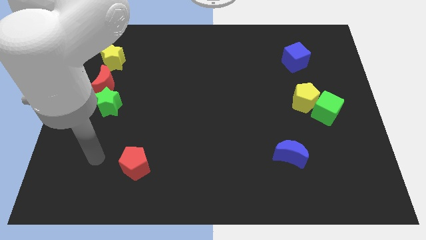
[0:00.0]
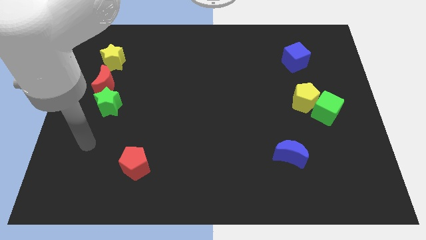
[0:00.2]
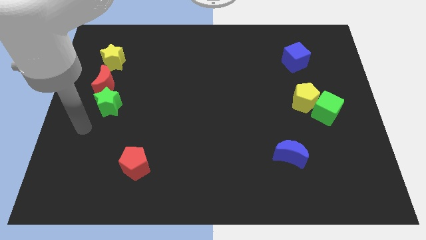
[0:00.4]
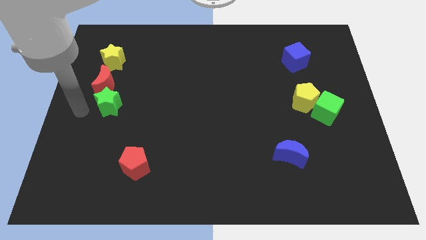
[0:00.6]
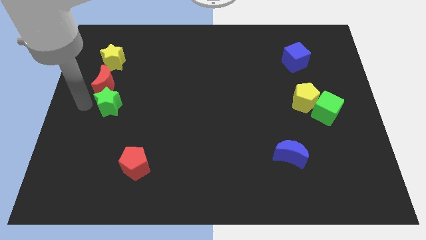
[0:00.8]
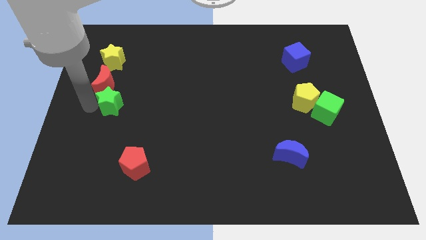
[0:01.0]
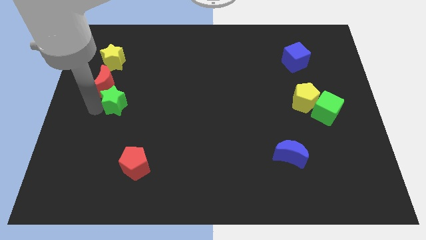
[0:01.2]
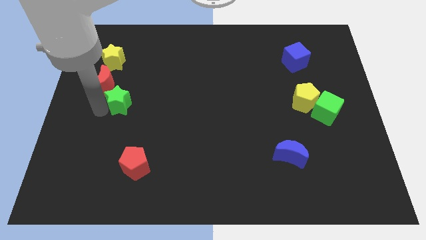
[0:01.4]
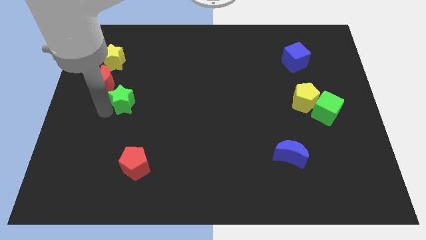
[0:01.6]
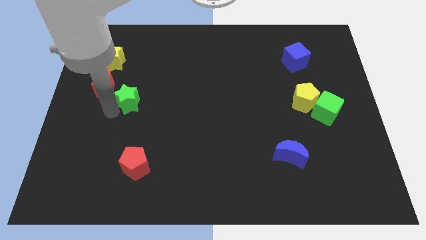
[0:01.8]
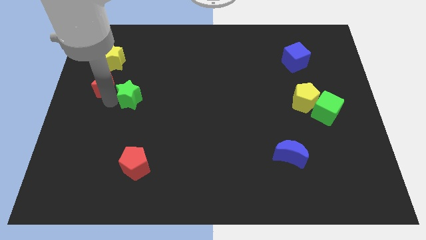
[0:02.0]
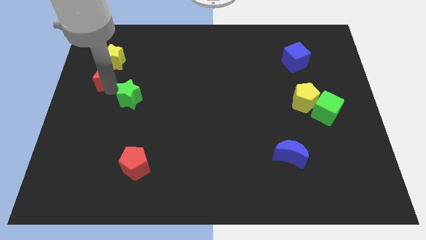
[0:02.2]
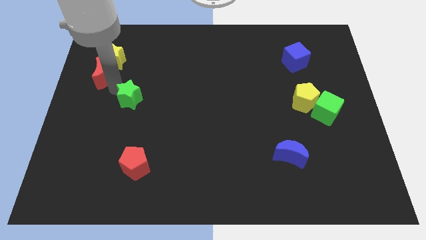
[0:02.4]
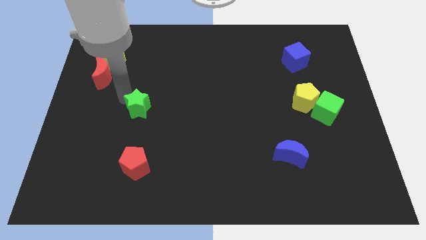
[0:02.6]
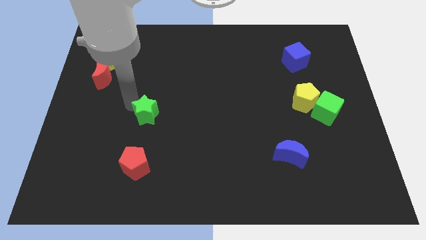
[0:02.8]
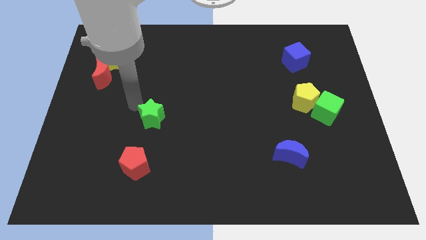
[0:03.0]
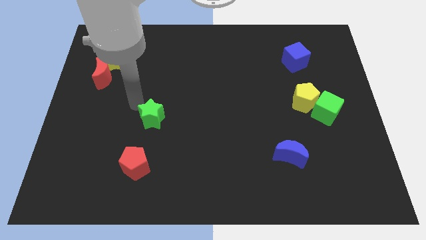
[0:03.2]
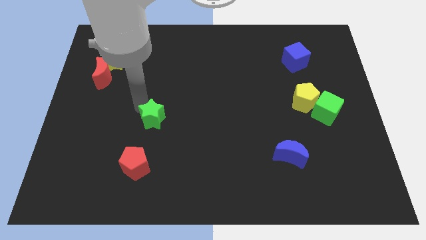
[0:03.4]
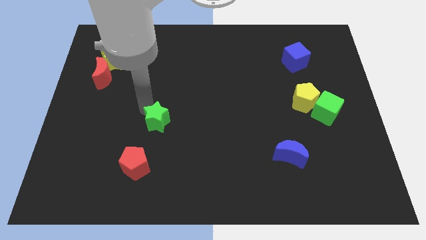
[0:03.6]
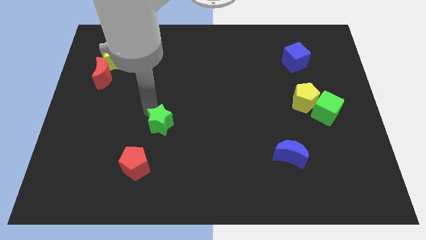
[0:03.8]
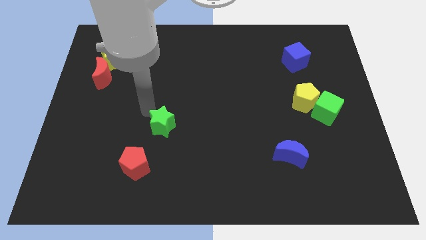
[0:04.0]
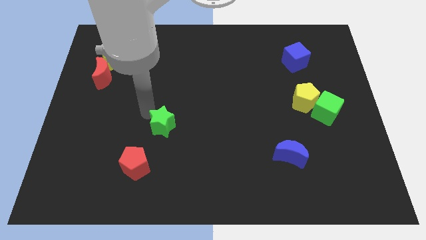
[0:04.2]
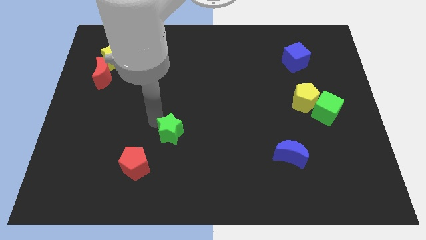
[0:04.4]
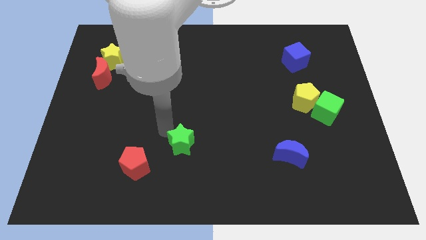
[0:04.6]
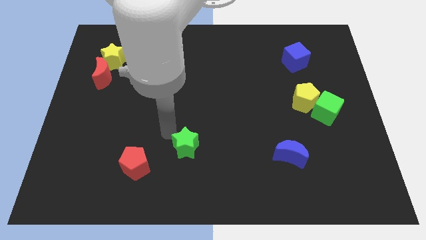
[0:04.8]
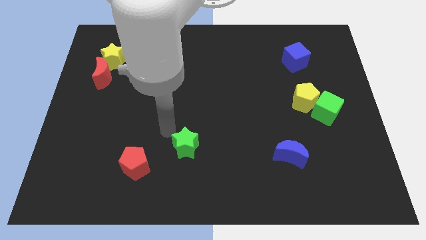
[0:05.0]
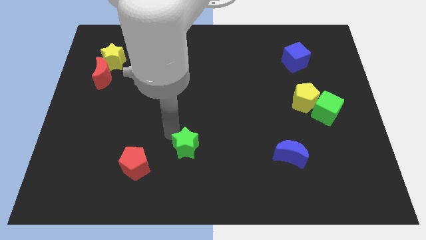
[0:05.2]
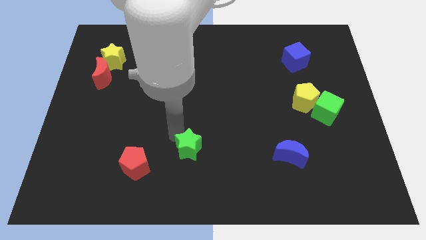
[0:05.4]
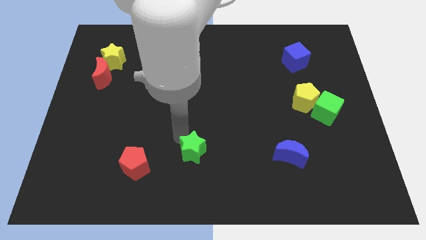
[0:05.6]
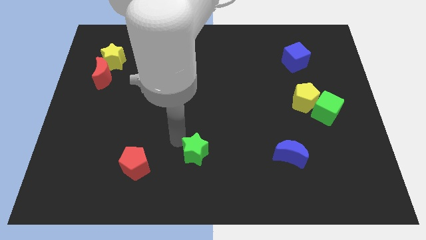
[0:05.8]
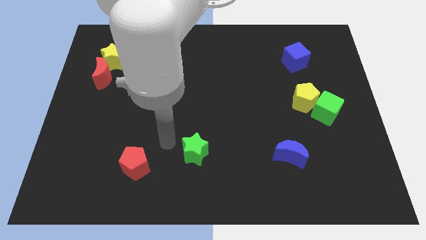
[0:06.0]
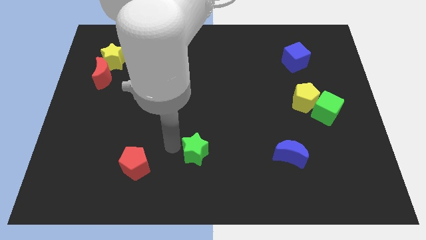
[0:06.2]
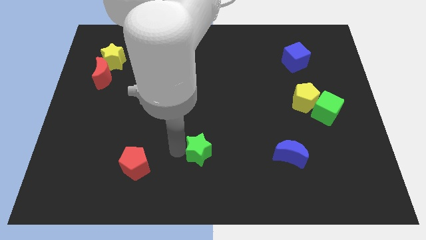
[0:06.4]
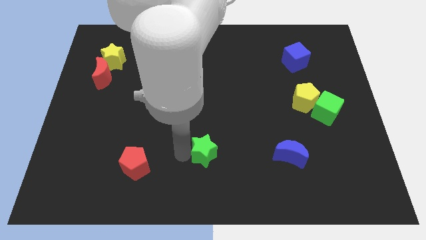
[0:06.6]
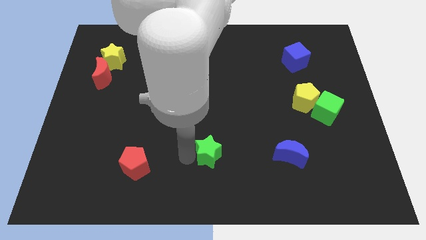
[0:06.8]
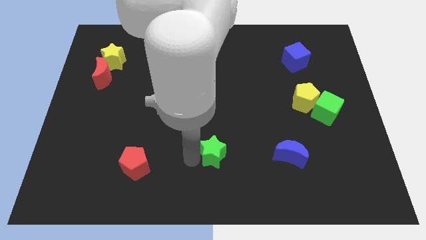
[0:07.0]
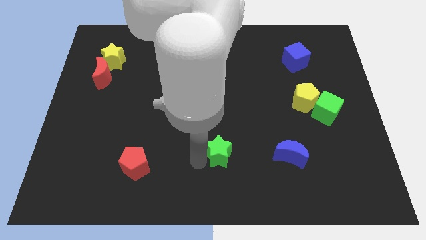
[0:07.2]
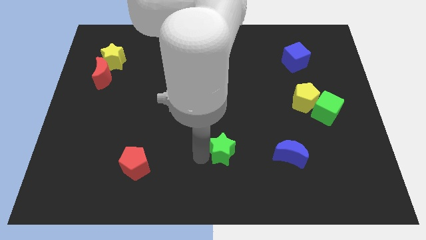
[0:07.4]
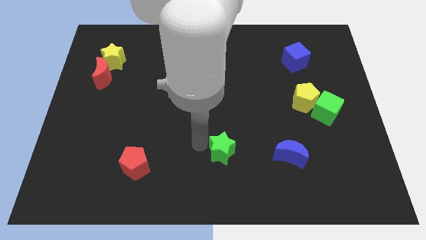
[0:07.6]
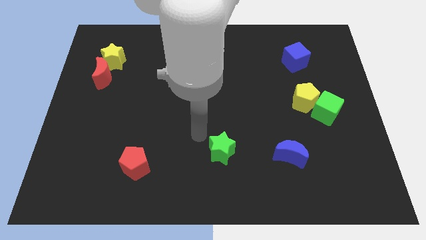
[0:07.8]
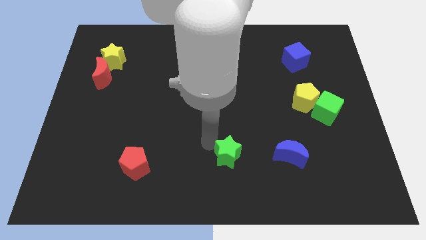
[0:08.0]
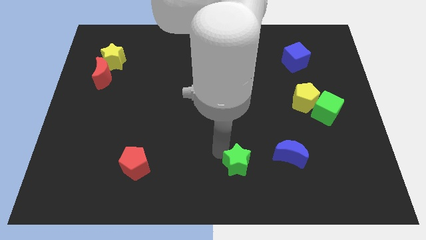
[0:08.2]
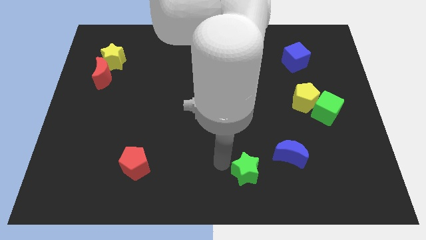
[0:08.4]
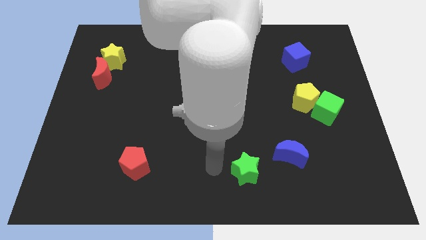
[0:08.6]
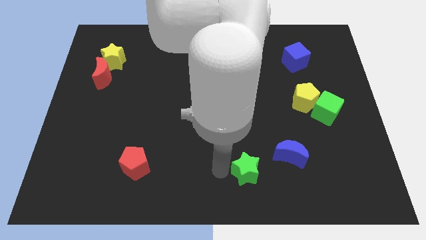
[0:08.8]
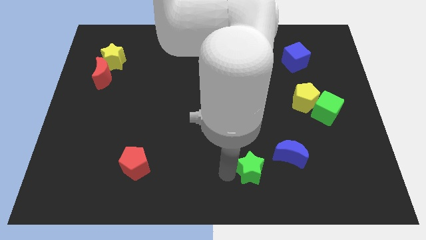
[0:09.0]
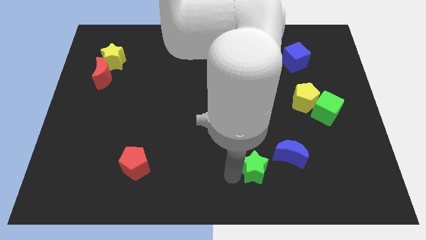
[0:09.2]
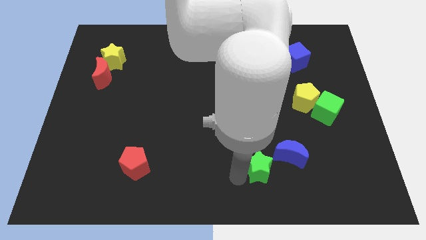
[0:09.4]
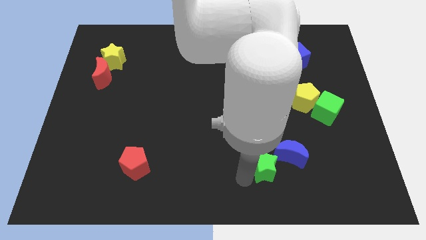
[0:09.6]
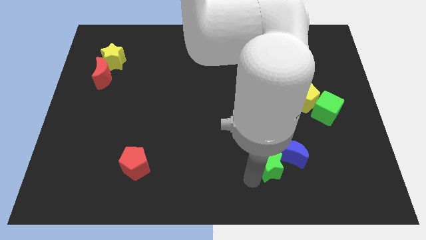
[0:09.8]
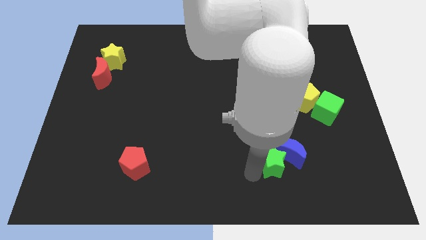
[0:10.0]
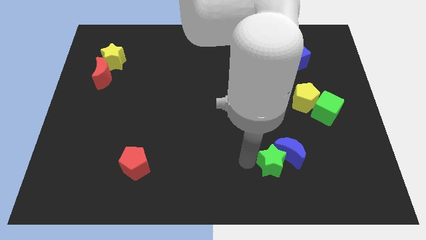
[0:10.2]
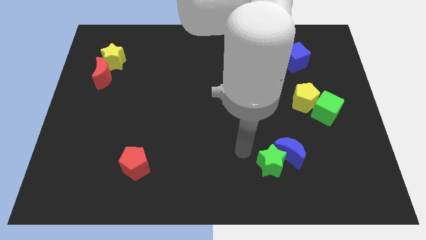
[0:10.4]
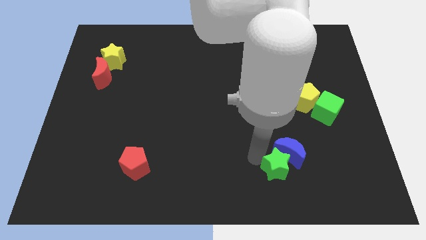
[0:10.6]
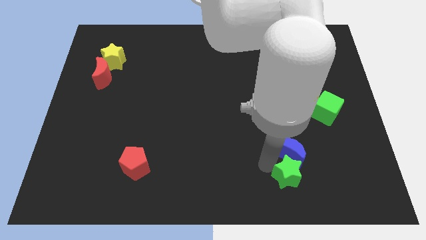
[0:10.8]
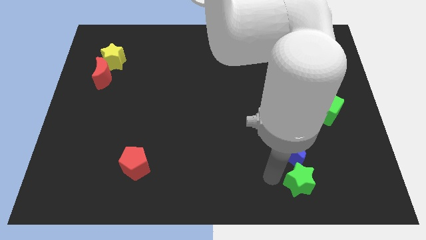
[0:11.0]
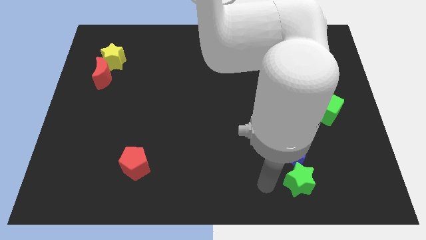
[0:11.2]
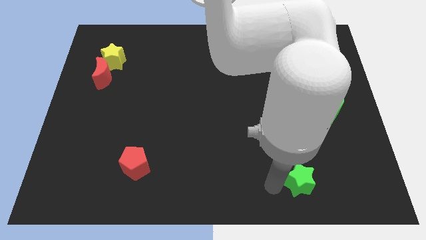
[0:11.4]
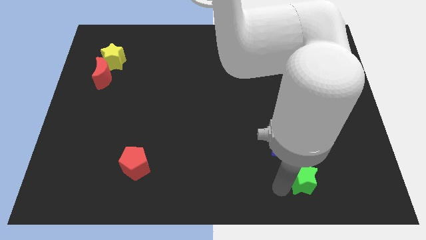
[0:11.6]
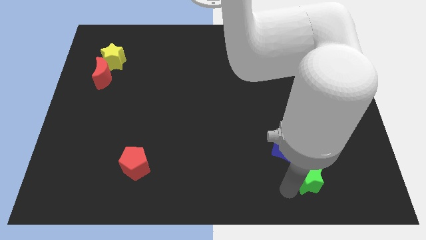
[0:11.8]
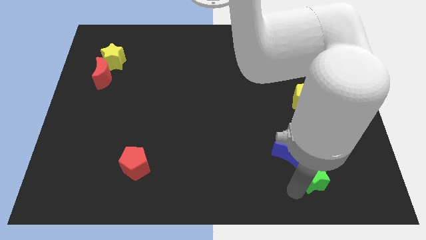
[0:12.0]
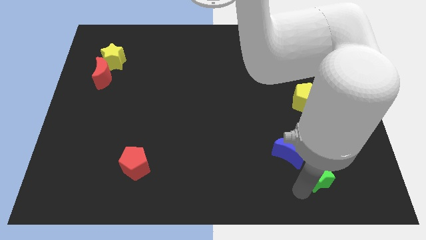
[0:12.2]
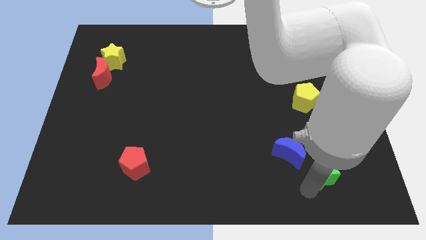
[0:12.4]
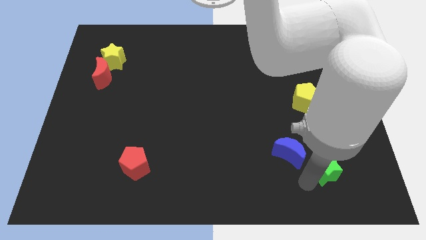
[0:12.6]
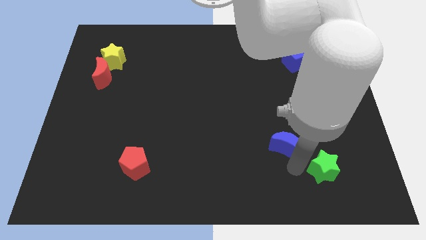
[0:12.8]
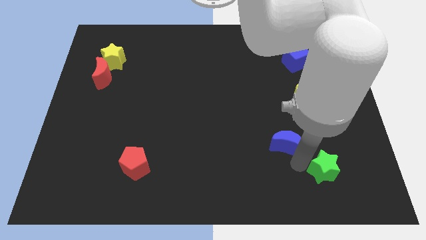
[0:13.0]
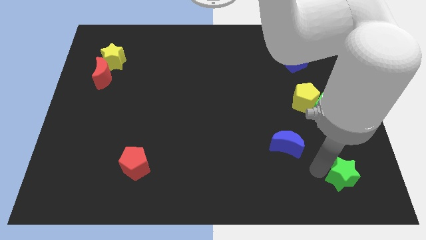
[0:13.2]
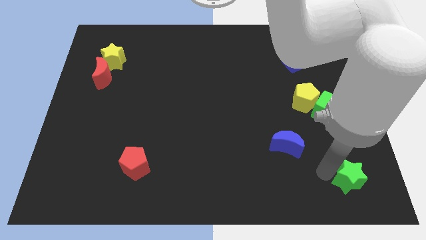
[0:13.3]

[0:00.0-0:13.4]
put the green star to the lower right corner

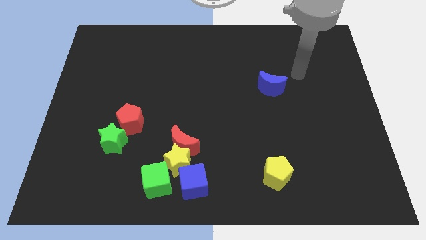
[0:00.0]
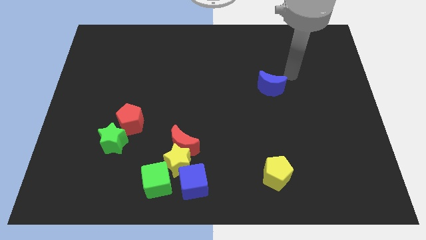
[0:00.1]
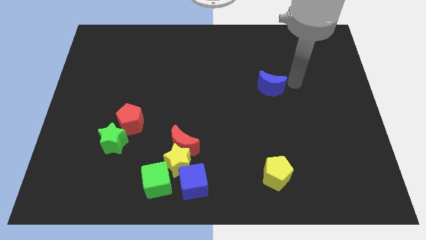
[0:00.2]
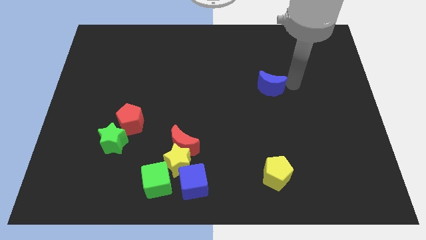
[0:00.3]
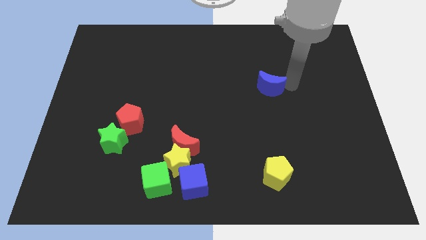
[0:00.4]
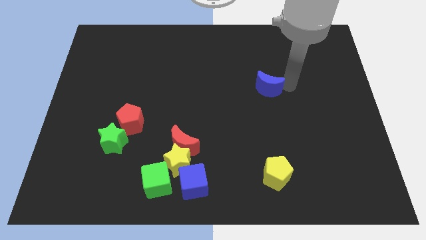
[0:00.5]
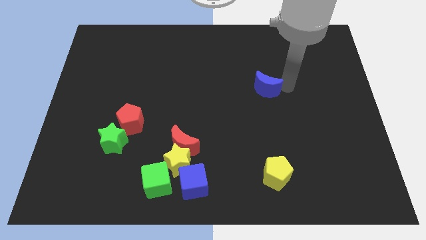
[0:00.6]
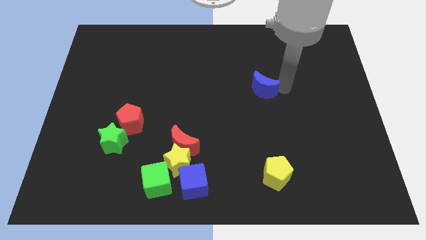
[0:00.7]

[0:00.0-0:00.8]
put the blue moon to the center of the board
